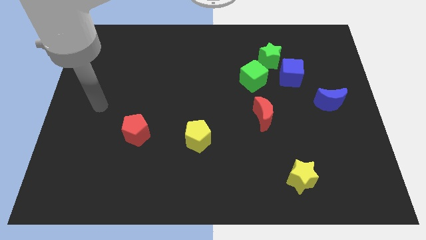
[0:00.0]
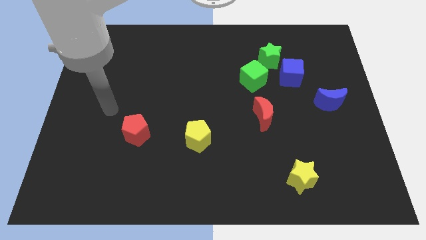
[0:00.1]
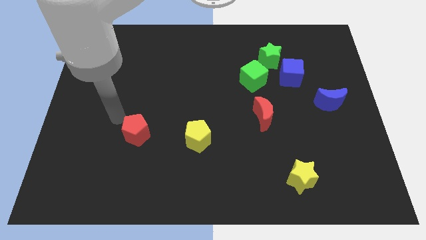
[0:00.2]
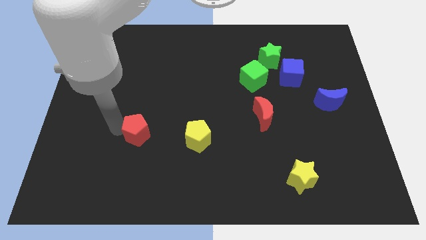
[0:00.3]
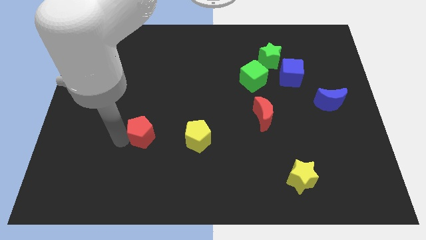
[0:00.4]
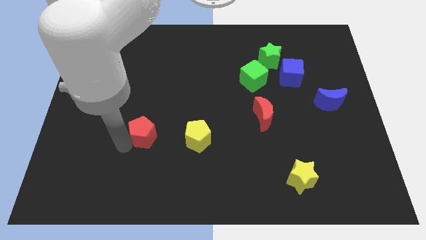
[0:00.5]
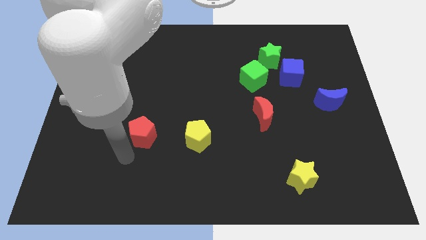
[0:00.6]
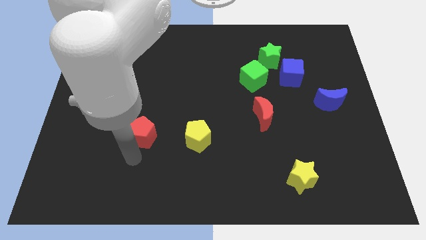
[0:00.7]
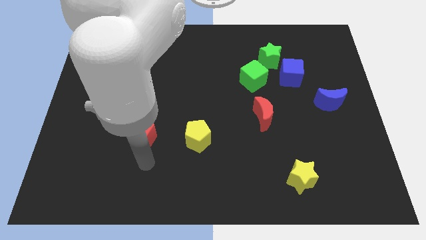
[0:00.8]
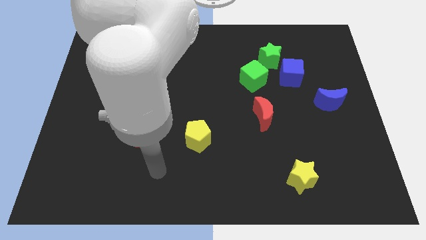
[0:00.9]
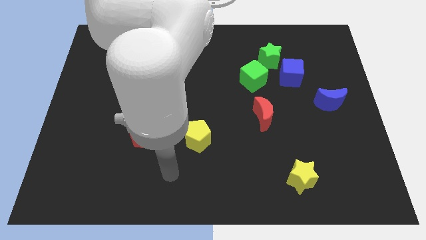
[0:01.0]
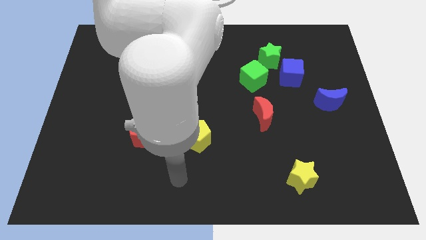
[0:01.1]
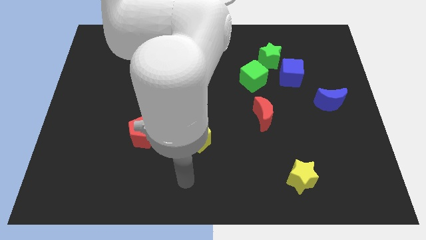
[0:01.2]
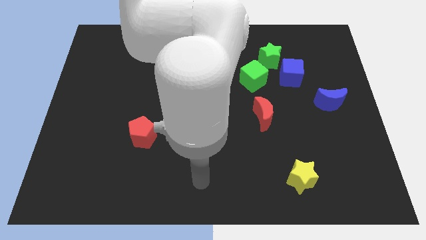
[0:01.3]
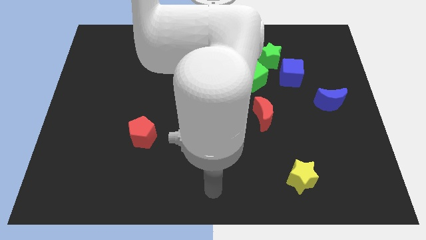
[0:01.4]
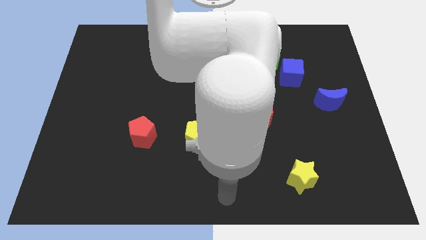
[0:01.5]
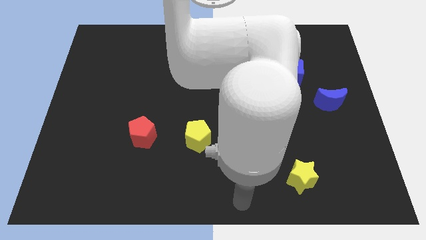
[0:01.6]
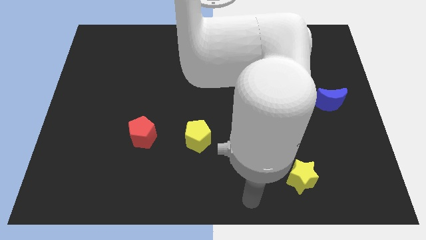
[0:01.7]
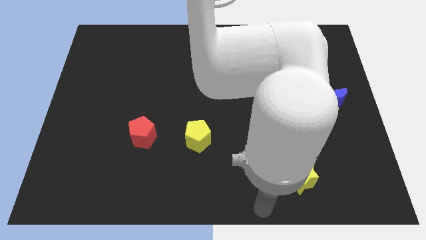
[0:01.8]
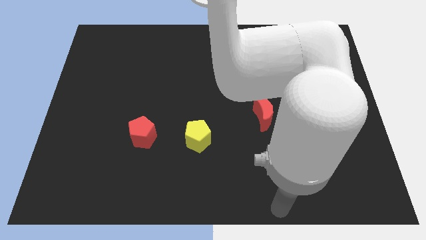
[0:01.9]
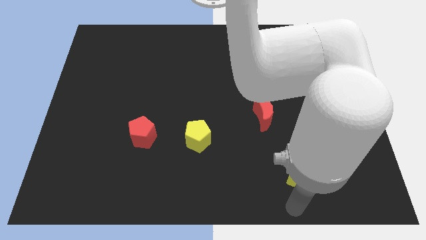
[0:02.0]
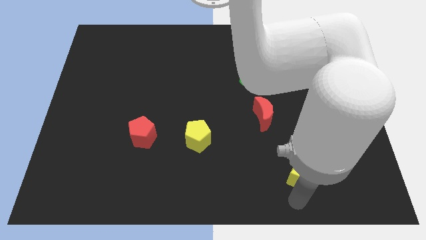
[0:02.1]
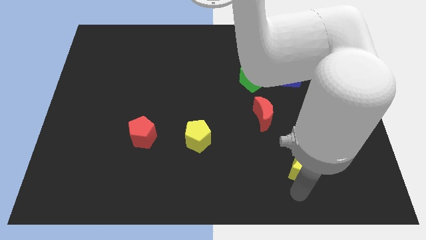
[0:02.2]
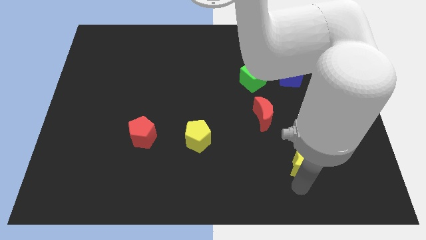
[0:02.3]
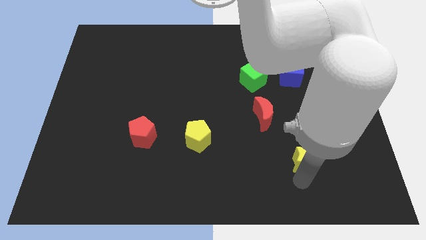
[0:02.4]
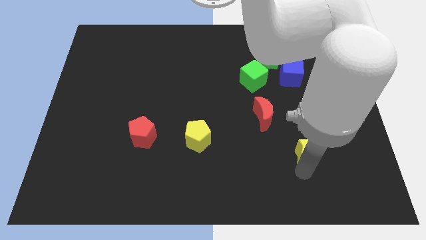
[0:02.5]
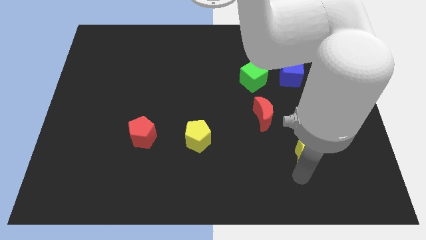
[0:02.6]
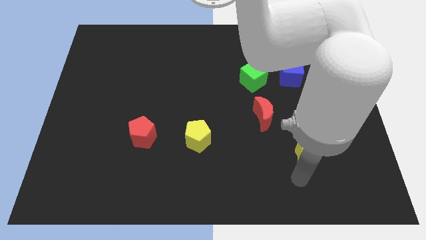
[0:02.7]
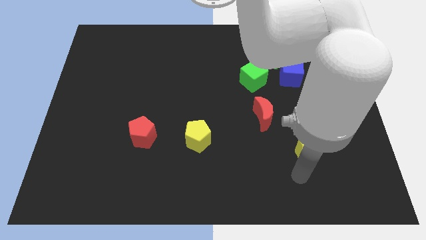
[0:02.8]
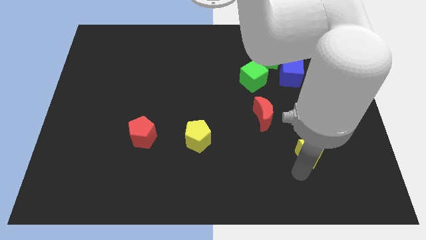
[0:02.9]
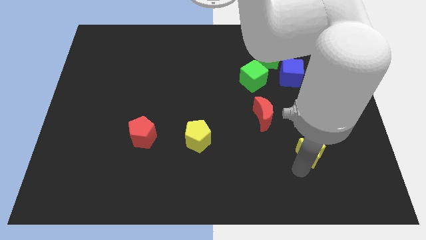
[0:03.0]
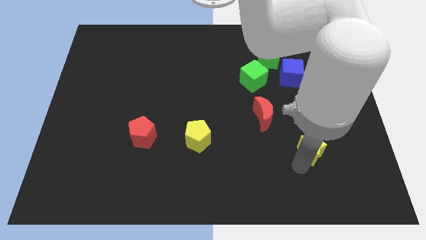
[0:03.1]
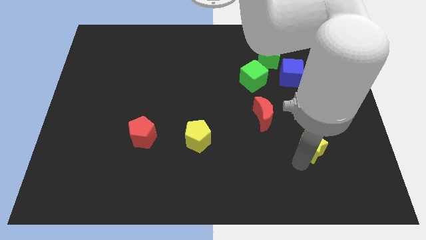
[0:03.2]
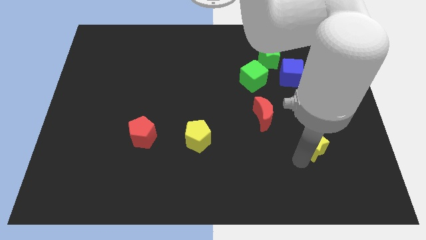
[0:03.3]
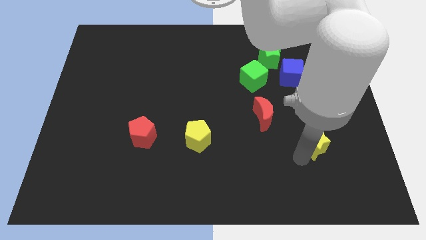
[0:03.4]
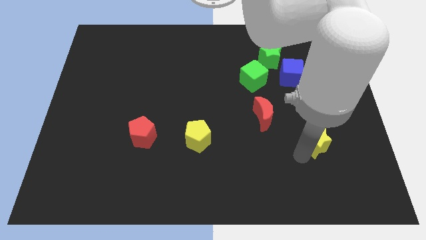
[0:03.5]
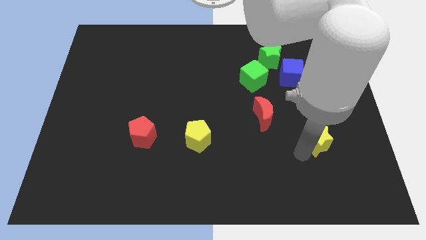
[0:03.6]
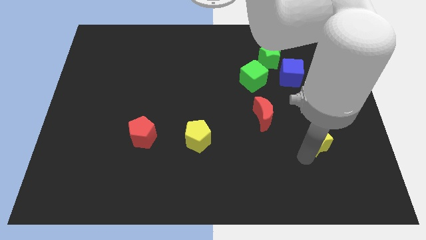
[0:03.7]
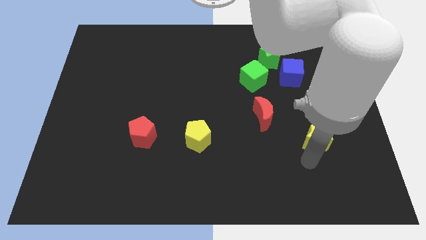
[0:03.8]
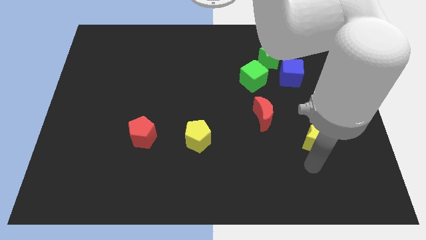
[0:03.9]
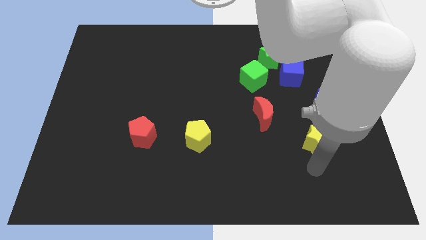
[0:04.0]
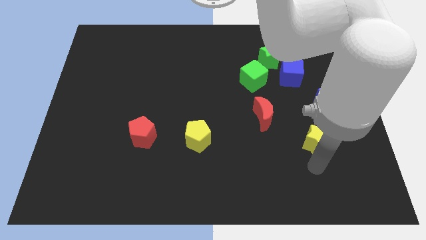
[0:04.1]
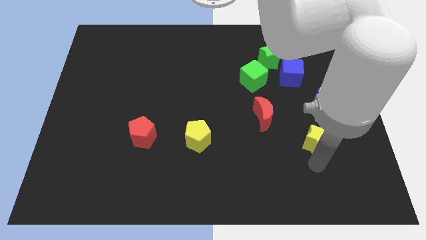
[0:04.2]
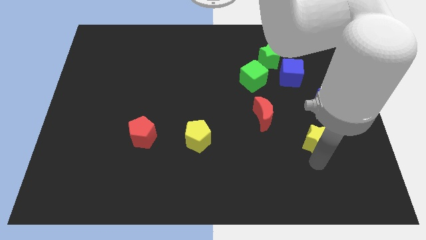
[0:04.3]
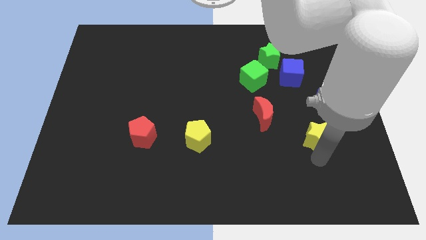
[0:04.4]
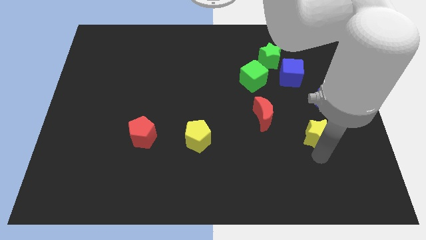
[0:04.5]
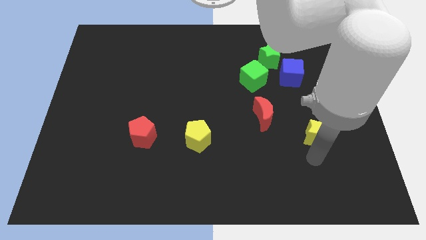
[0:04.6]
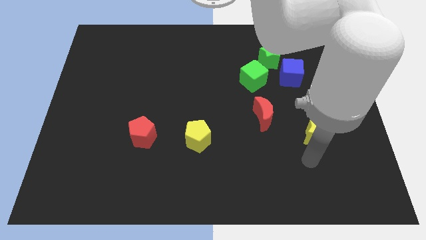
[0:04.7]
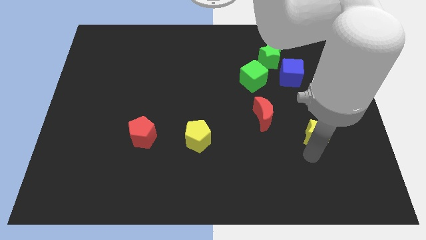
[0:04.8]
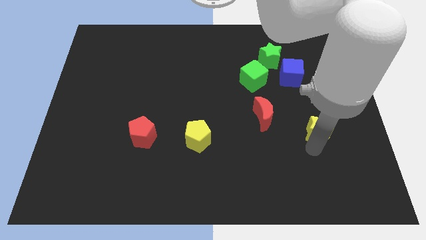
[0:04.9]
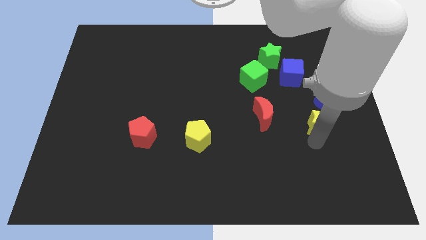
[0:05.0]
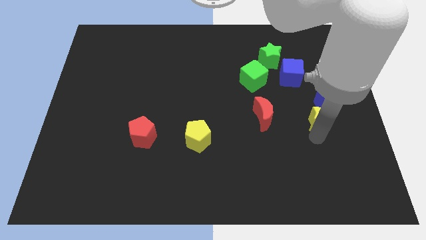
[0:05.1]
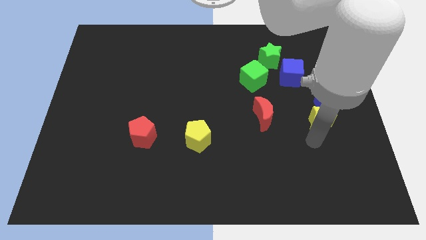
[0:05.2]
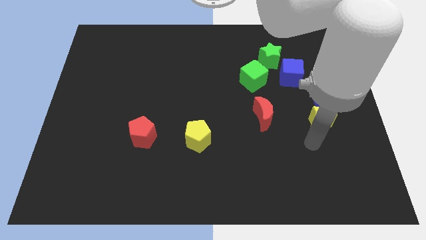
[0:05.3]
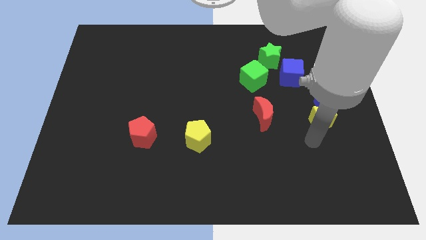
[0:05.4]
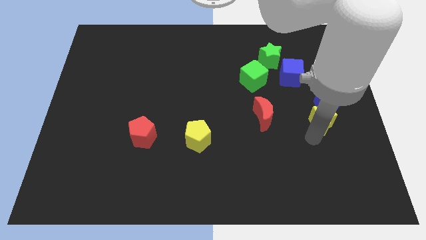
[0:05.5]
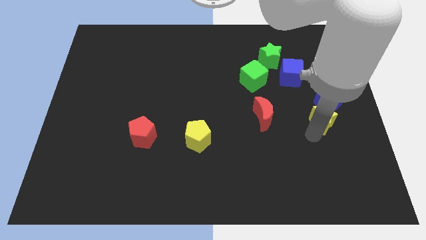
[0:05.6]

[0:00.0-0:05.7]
move the yellow star close to the blue moon

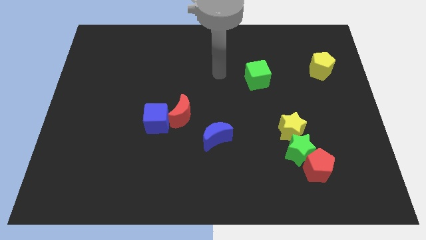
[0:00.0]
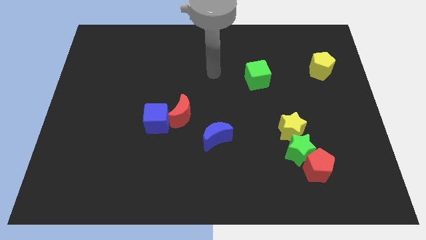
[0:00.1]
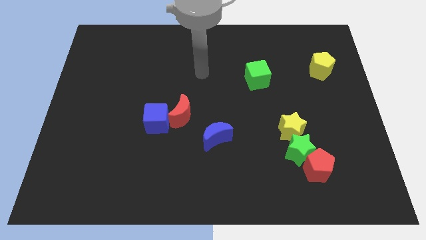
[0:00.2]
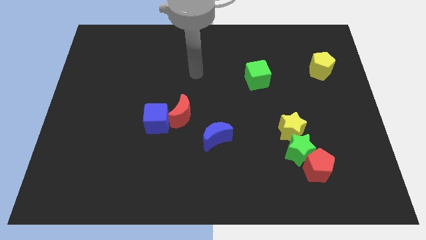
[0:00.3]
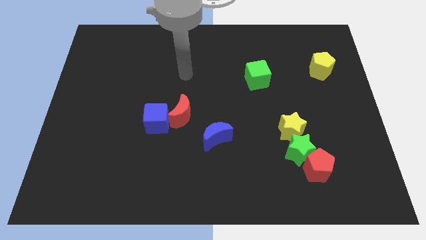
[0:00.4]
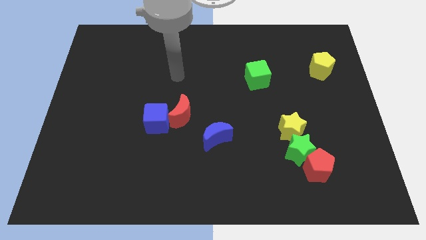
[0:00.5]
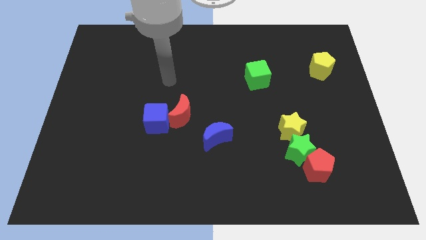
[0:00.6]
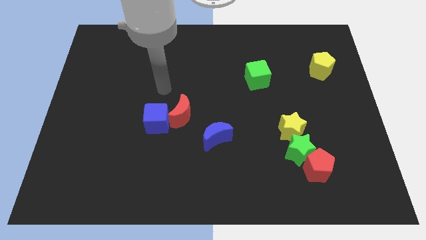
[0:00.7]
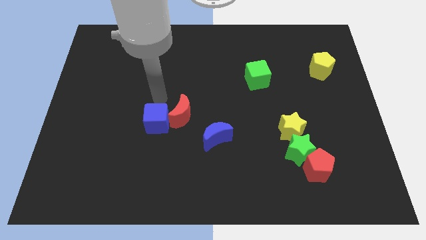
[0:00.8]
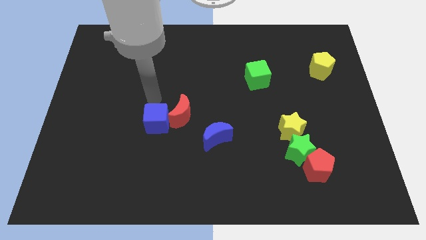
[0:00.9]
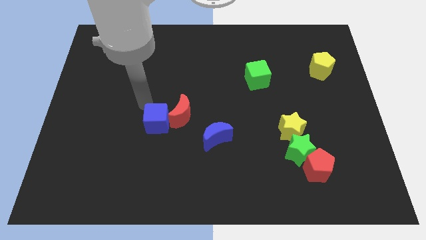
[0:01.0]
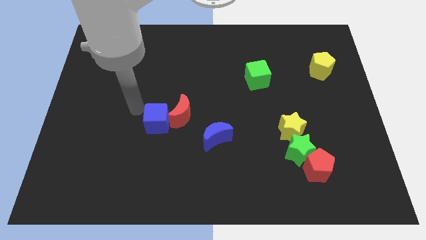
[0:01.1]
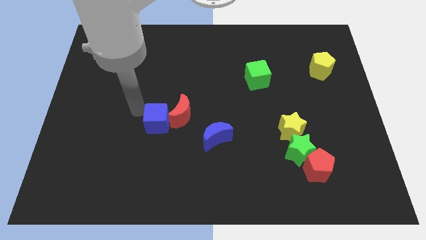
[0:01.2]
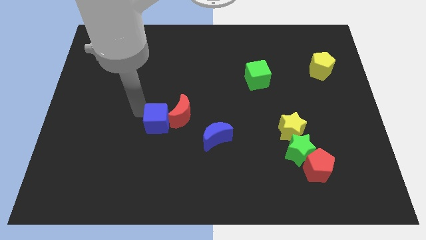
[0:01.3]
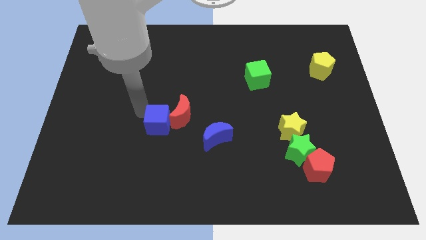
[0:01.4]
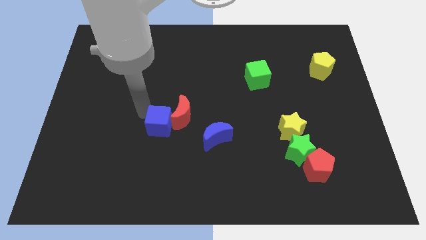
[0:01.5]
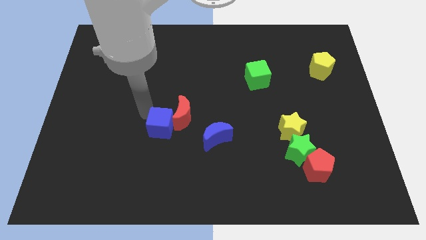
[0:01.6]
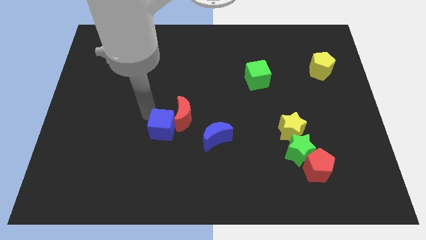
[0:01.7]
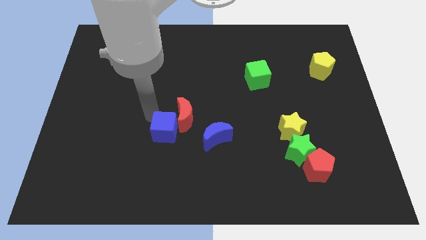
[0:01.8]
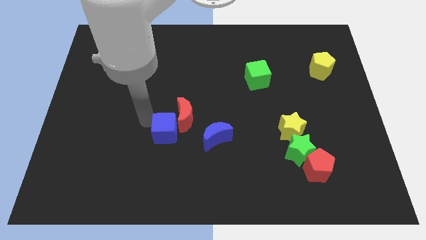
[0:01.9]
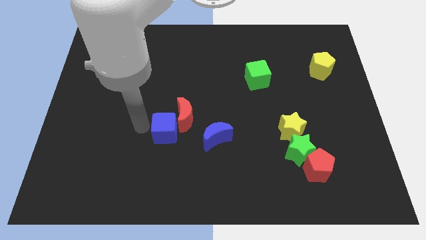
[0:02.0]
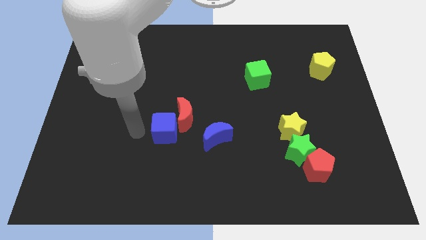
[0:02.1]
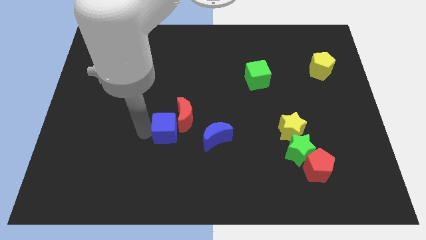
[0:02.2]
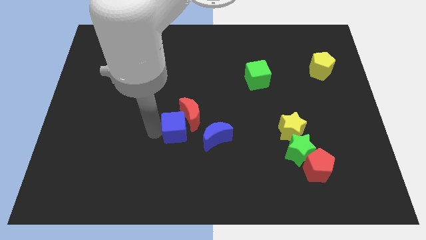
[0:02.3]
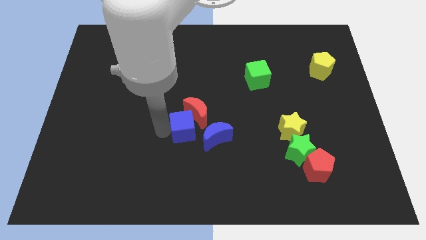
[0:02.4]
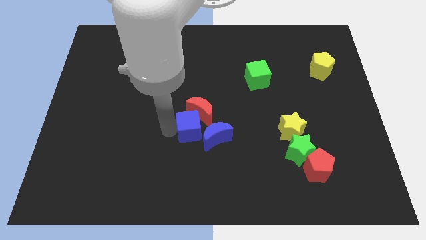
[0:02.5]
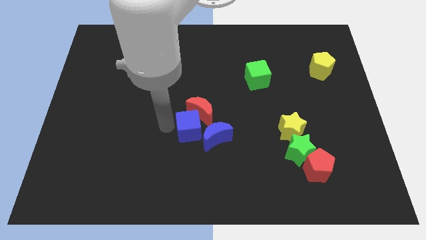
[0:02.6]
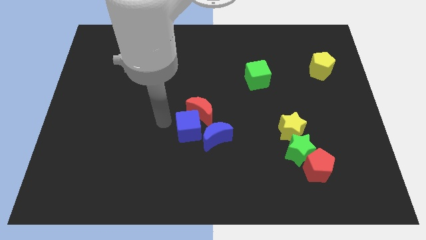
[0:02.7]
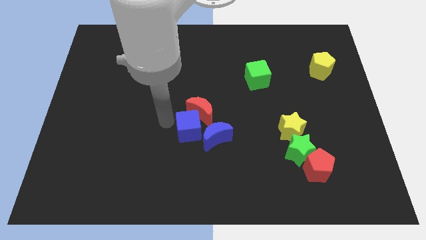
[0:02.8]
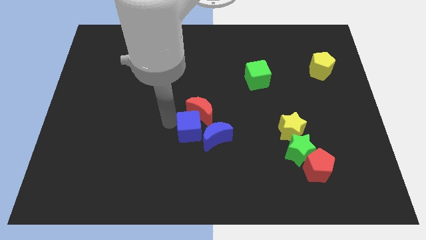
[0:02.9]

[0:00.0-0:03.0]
slide the blue cube towards the blue moon
